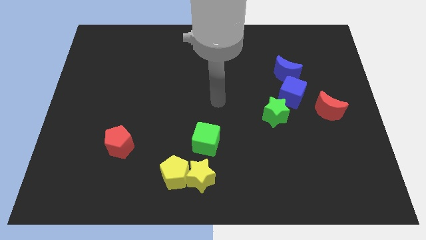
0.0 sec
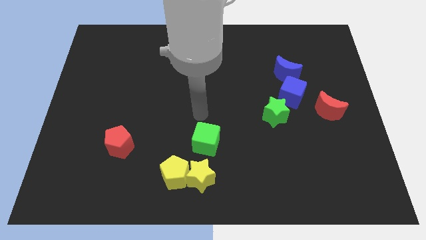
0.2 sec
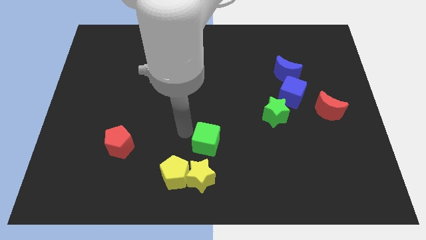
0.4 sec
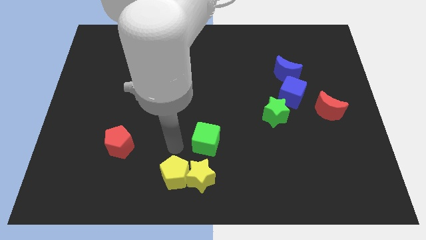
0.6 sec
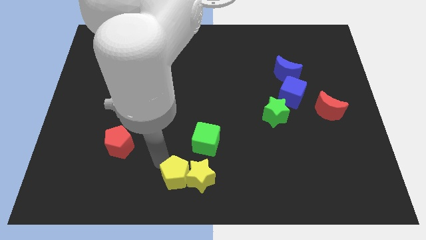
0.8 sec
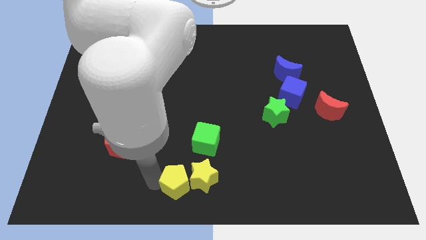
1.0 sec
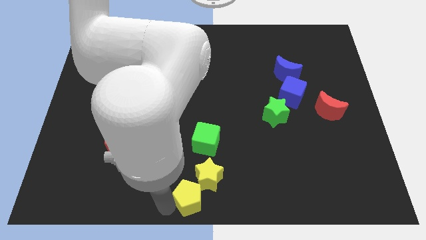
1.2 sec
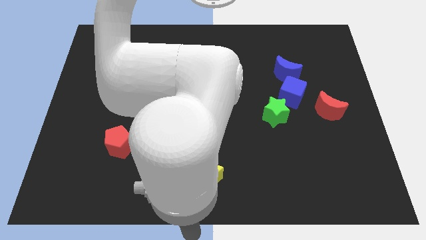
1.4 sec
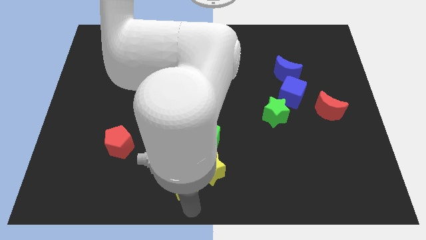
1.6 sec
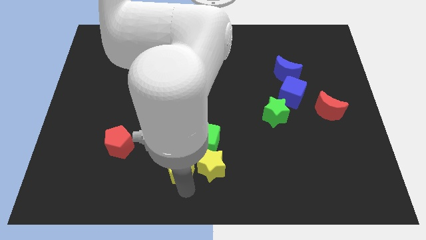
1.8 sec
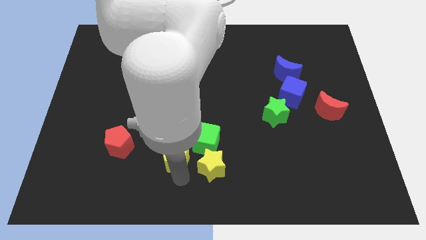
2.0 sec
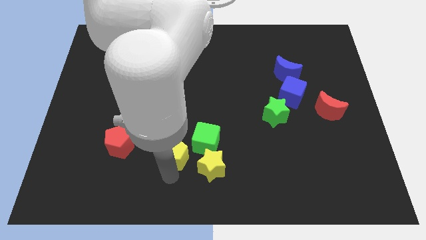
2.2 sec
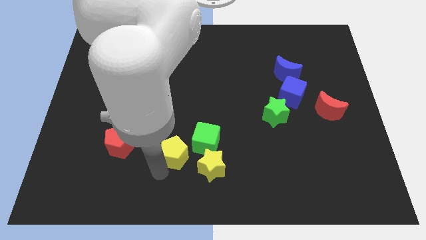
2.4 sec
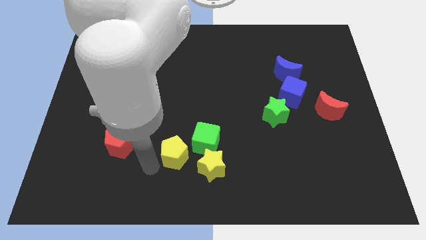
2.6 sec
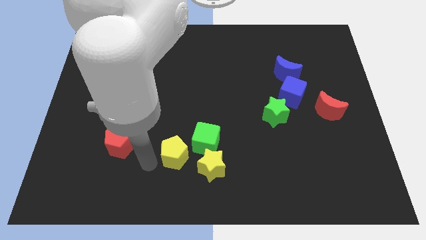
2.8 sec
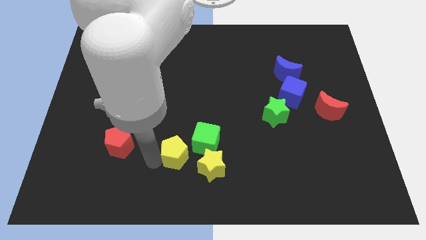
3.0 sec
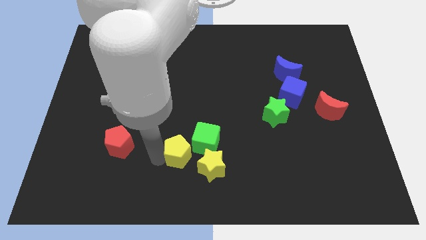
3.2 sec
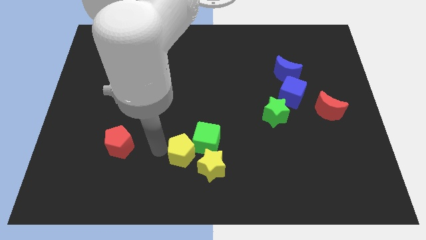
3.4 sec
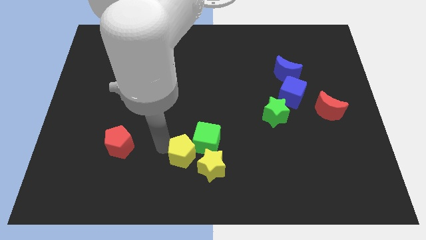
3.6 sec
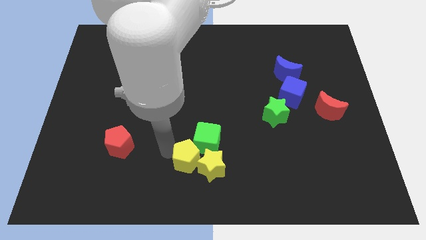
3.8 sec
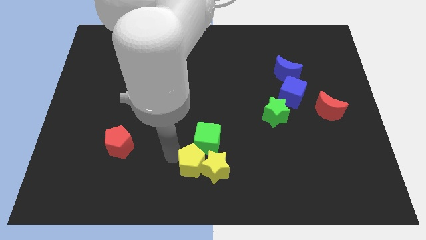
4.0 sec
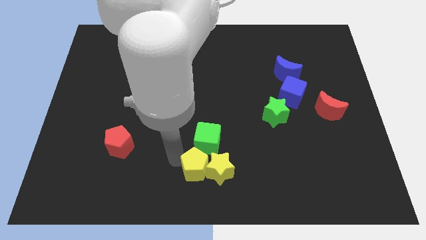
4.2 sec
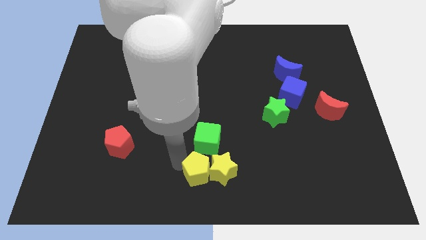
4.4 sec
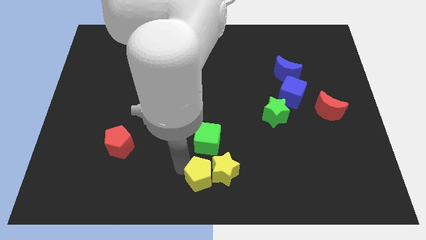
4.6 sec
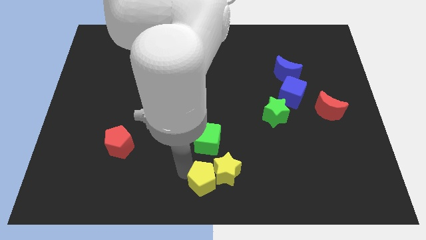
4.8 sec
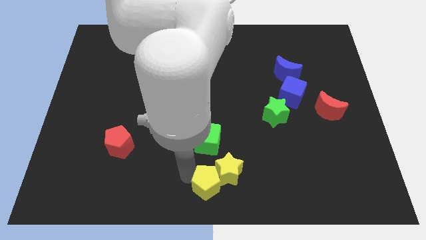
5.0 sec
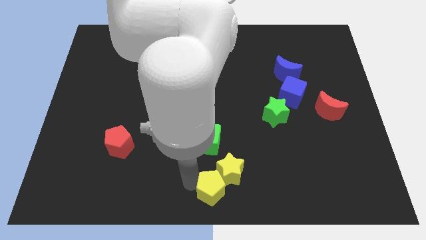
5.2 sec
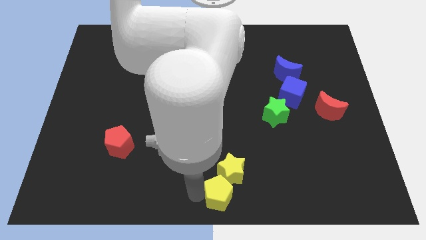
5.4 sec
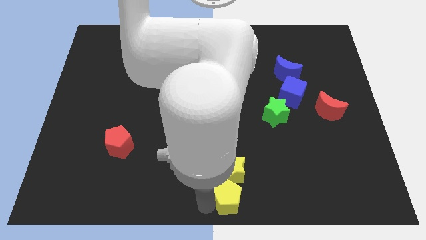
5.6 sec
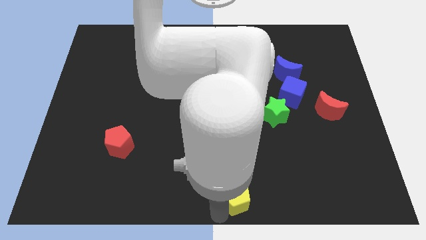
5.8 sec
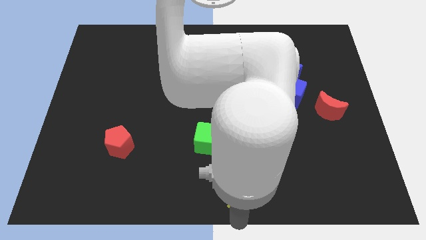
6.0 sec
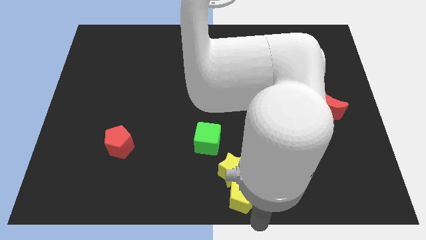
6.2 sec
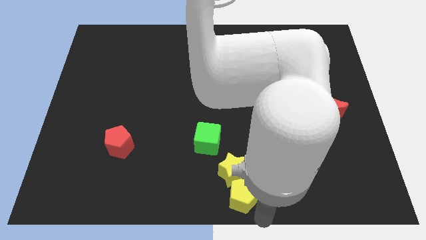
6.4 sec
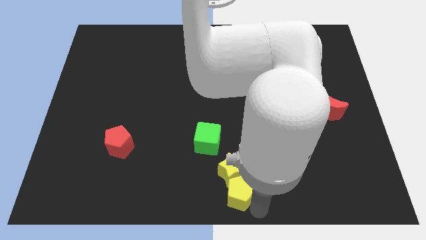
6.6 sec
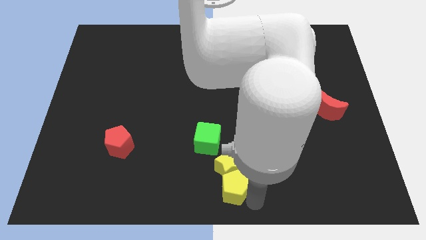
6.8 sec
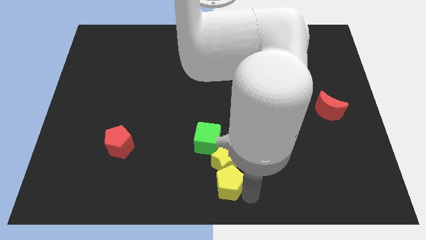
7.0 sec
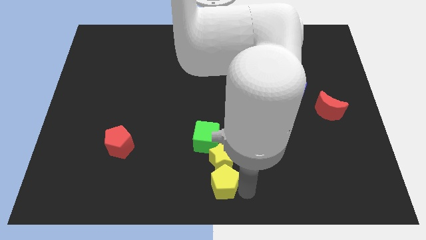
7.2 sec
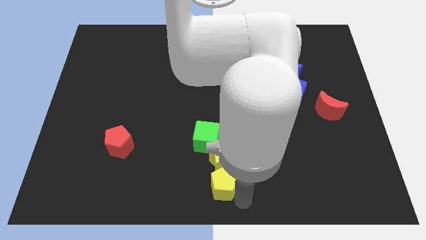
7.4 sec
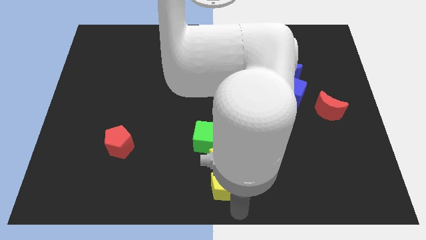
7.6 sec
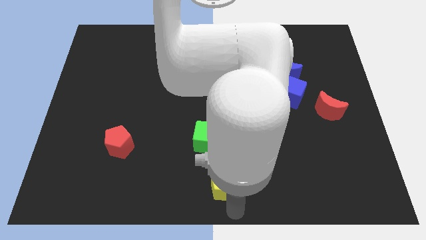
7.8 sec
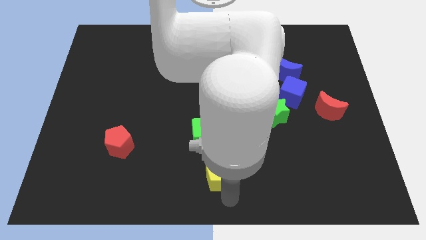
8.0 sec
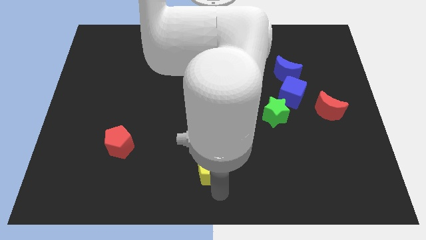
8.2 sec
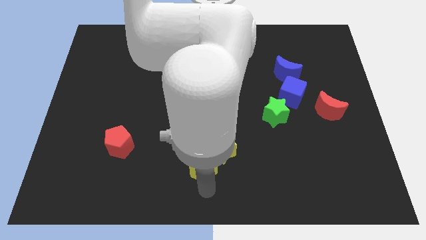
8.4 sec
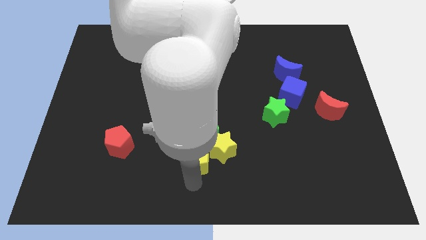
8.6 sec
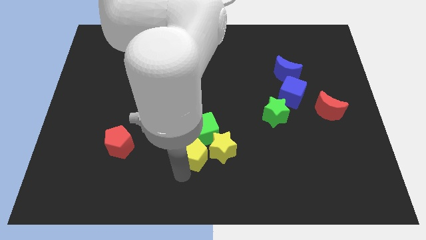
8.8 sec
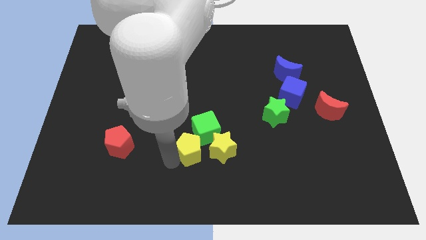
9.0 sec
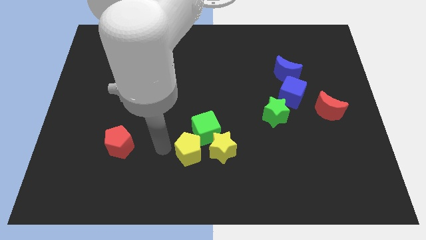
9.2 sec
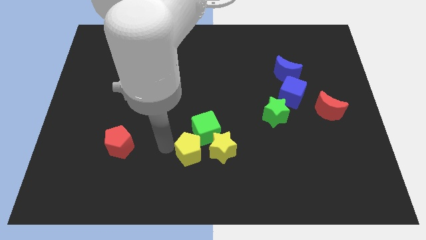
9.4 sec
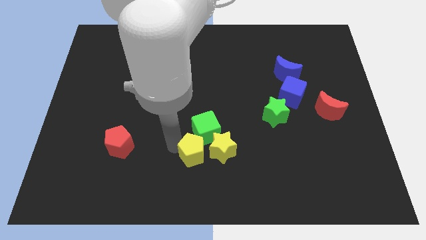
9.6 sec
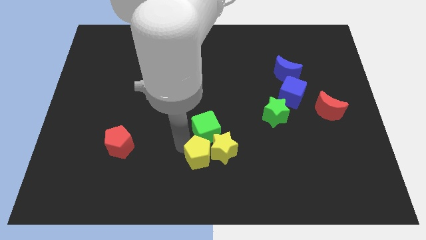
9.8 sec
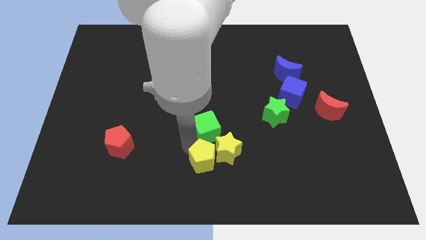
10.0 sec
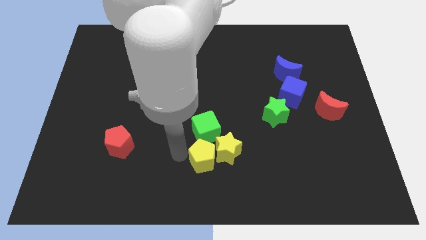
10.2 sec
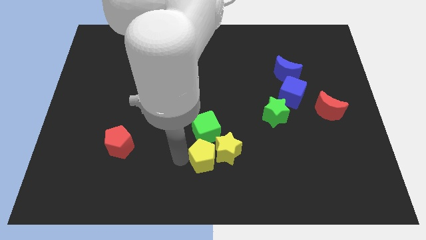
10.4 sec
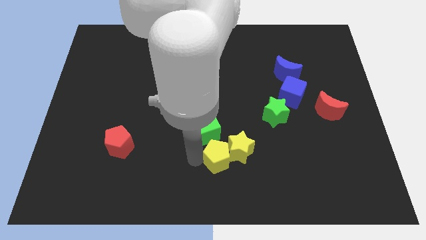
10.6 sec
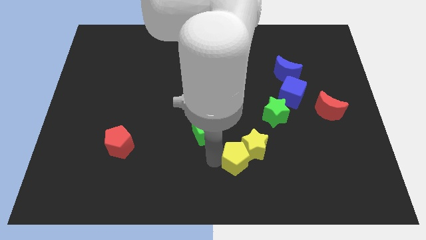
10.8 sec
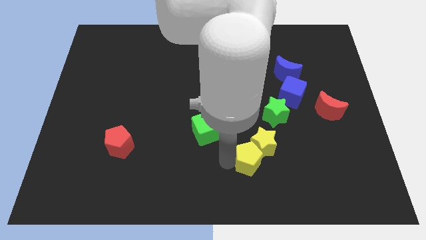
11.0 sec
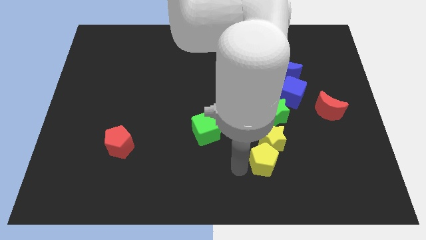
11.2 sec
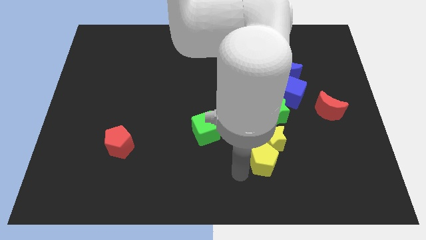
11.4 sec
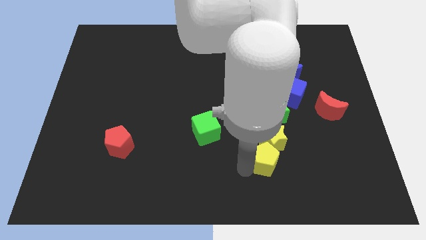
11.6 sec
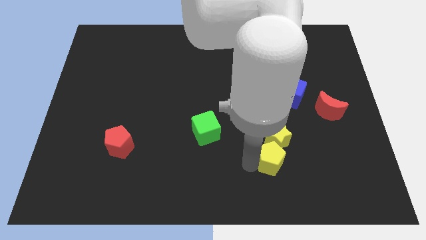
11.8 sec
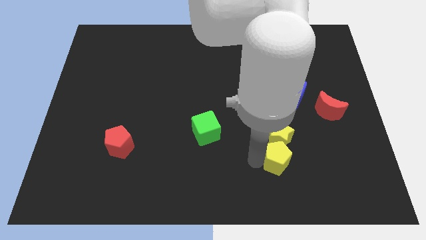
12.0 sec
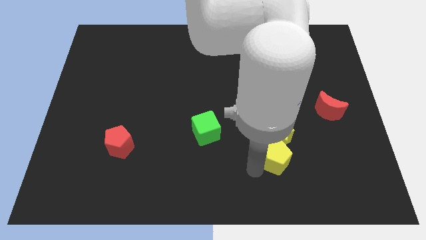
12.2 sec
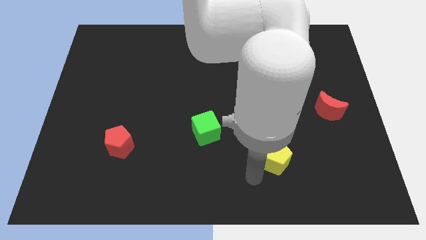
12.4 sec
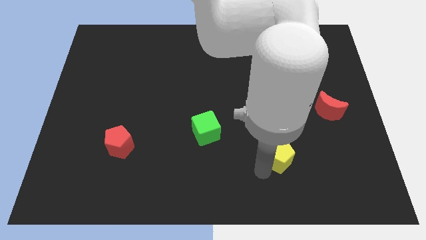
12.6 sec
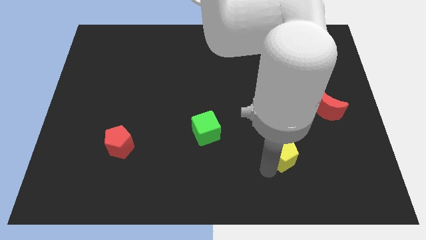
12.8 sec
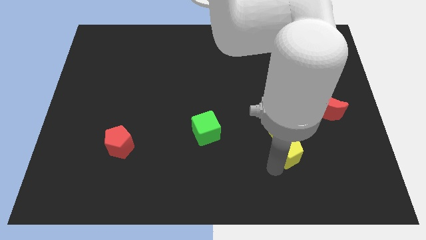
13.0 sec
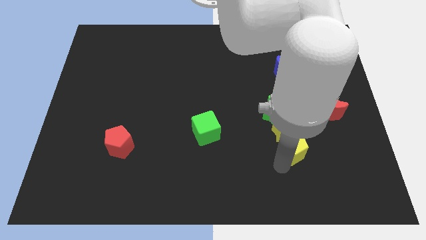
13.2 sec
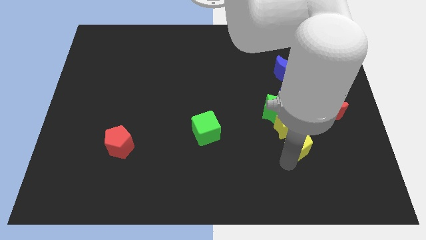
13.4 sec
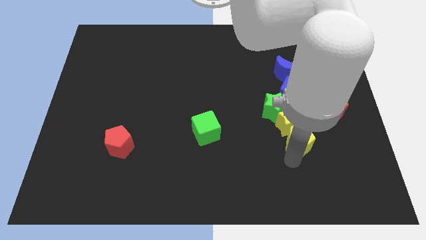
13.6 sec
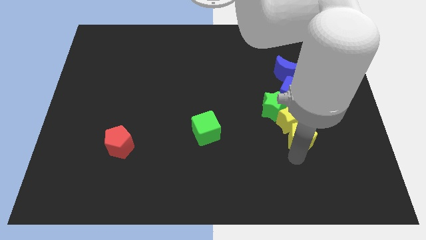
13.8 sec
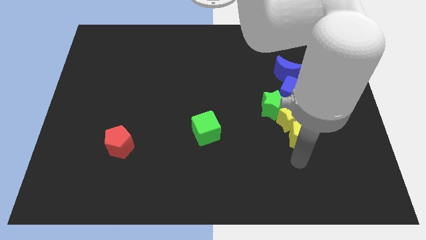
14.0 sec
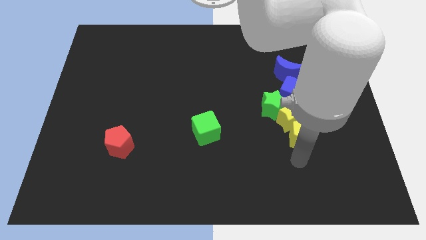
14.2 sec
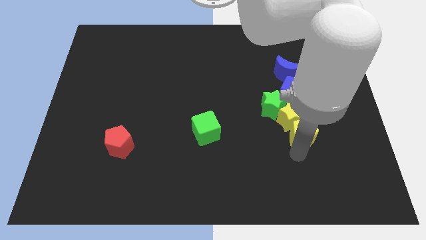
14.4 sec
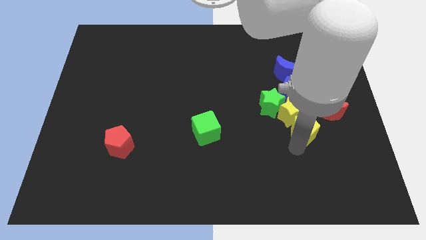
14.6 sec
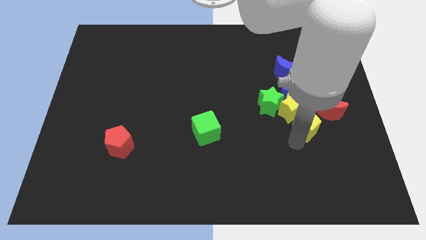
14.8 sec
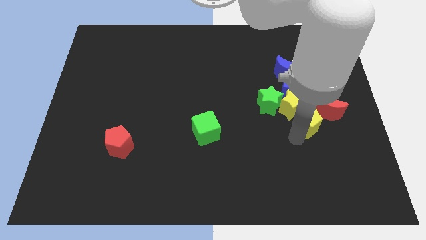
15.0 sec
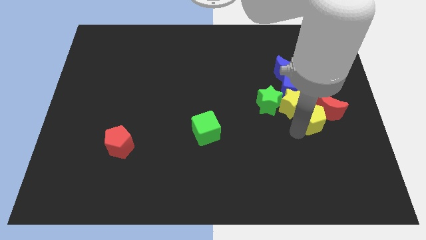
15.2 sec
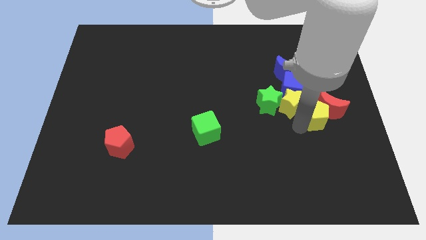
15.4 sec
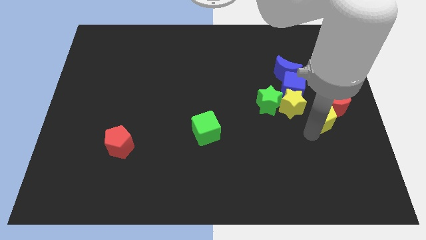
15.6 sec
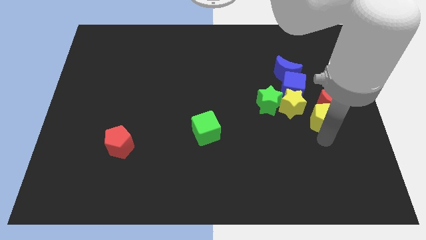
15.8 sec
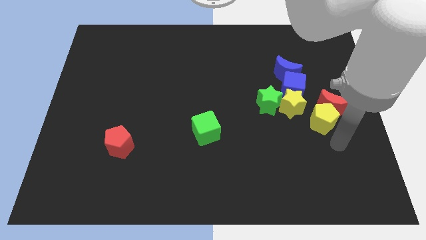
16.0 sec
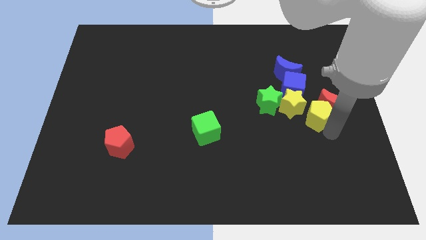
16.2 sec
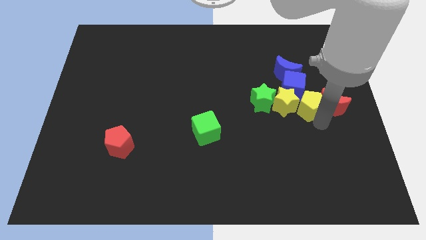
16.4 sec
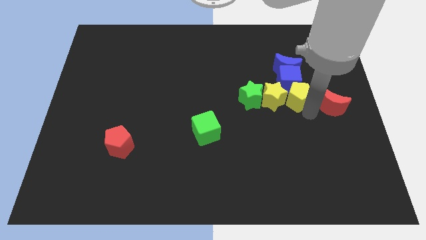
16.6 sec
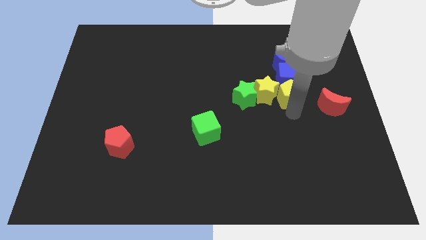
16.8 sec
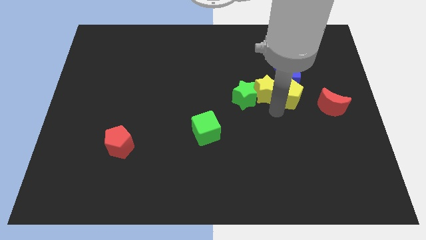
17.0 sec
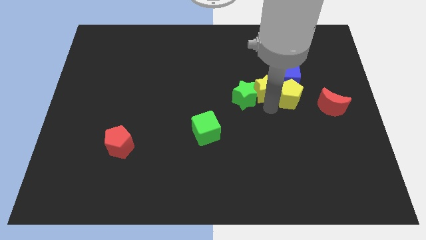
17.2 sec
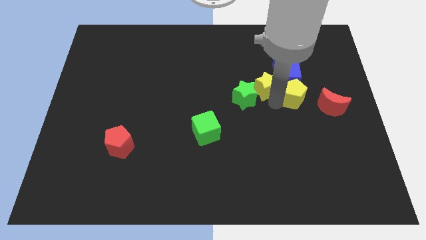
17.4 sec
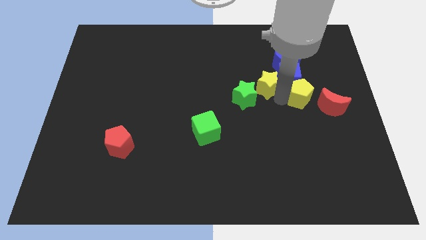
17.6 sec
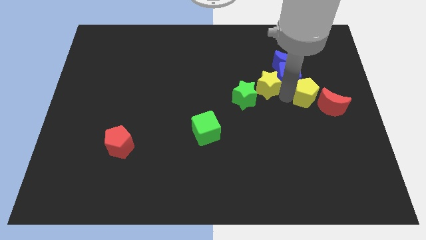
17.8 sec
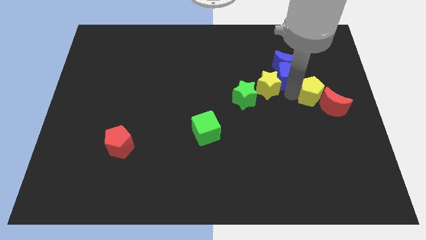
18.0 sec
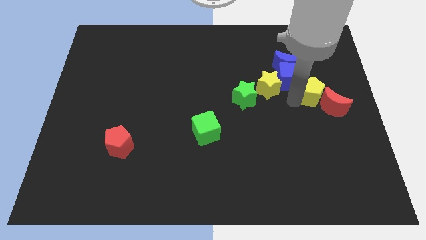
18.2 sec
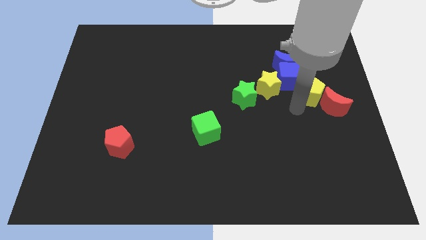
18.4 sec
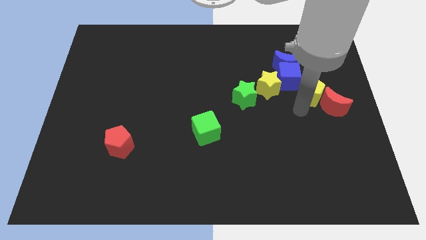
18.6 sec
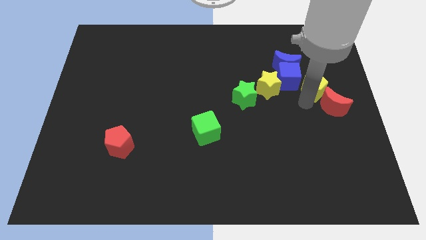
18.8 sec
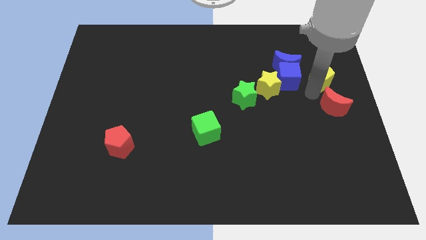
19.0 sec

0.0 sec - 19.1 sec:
slide the yellow pentagon right of the blue moon
